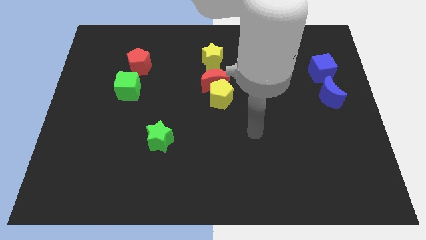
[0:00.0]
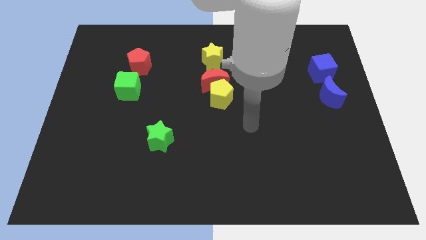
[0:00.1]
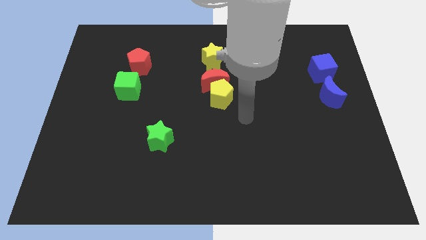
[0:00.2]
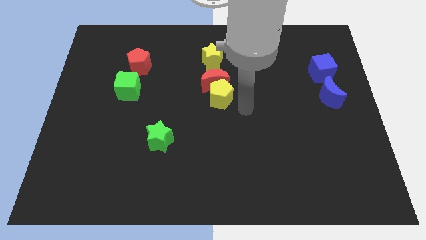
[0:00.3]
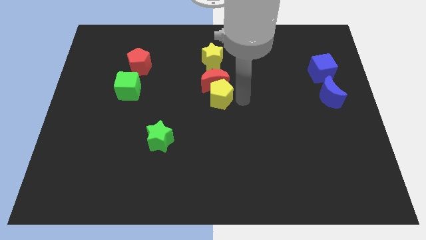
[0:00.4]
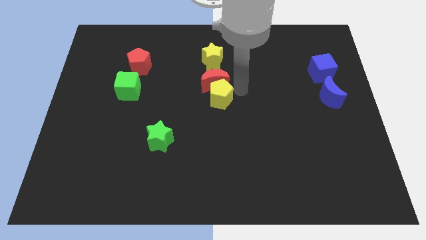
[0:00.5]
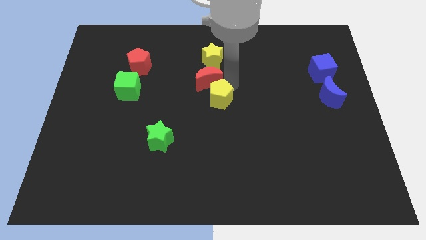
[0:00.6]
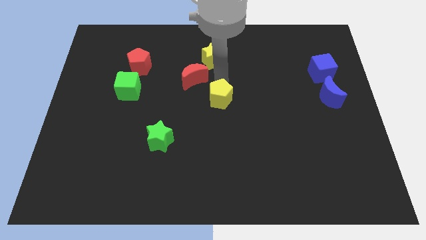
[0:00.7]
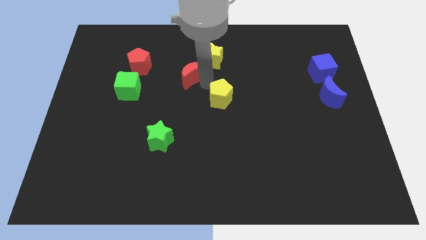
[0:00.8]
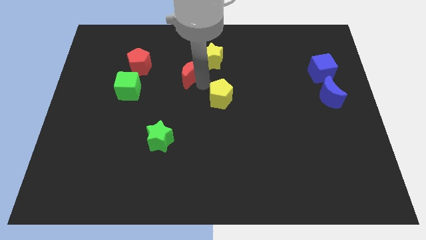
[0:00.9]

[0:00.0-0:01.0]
move the yellow pentagon away from the red moon

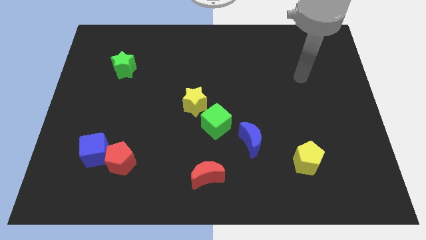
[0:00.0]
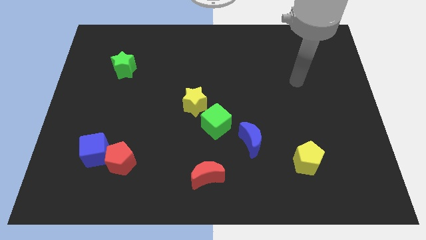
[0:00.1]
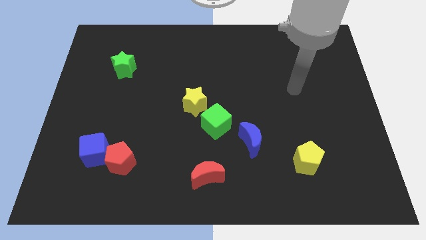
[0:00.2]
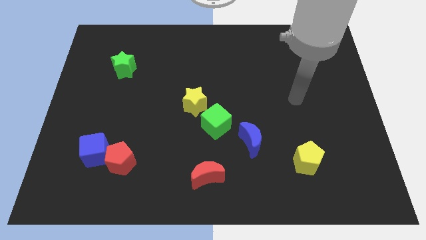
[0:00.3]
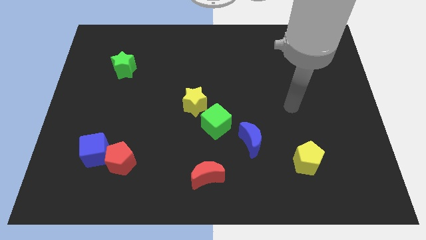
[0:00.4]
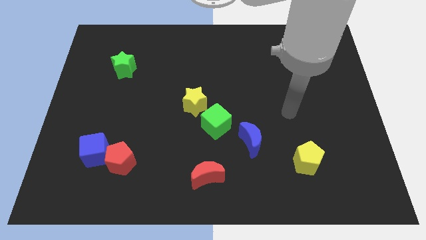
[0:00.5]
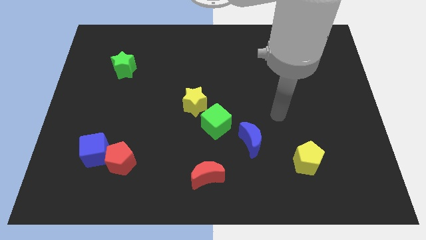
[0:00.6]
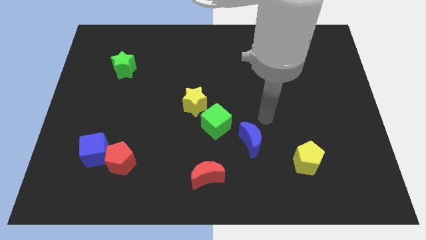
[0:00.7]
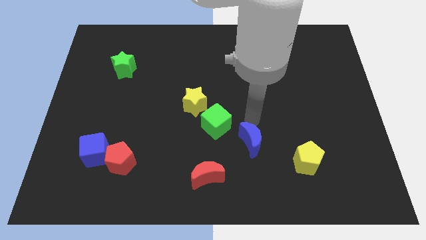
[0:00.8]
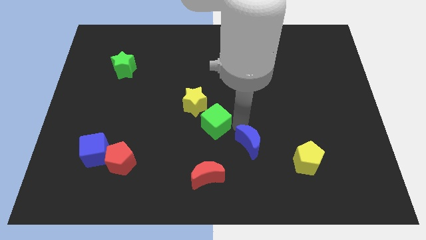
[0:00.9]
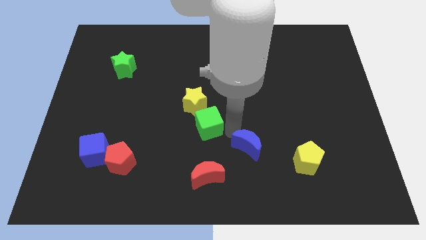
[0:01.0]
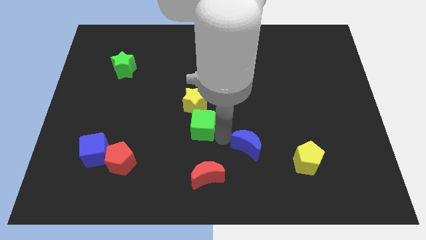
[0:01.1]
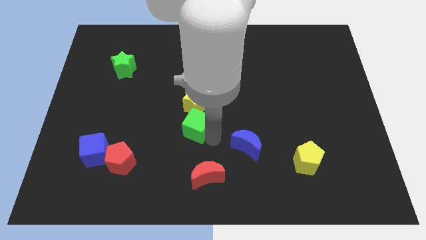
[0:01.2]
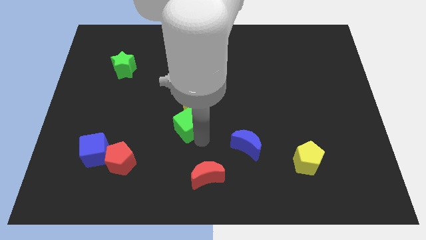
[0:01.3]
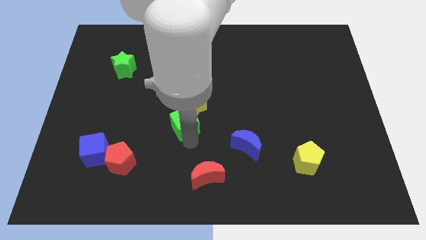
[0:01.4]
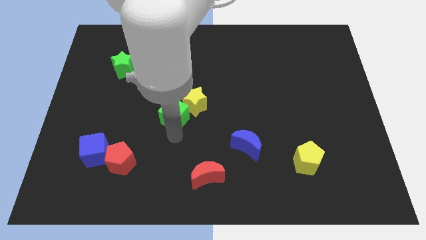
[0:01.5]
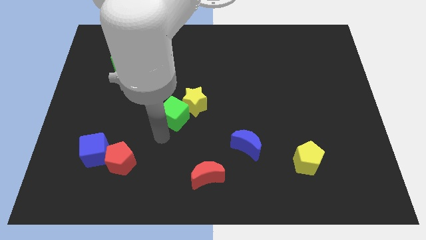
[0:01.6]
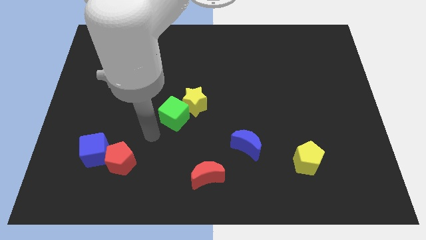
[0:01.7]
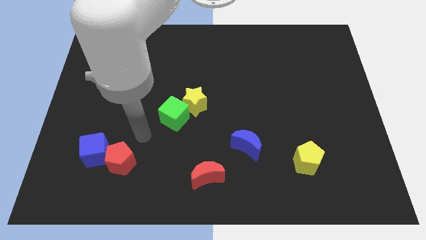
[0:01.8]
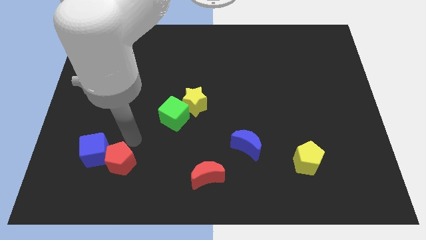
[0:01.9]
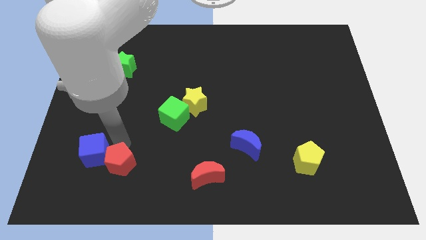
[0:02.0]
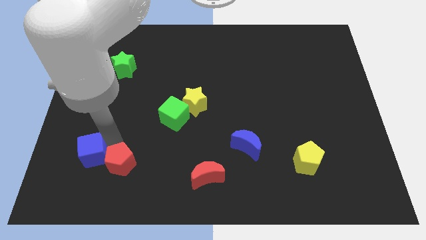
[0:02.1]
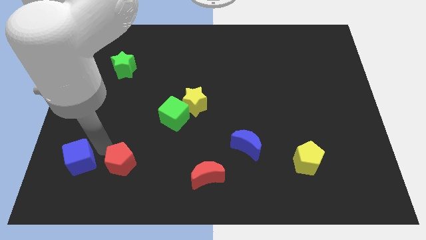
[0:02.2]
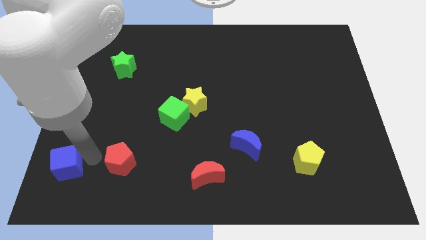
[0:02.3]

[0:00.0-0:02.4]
pull the red pentagon apart from the blue cube

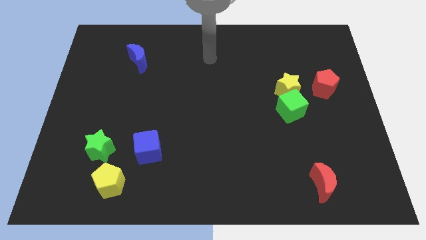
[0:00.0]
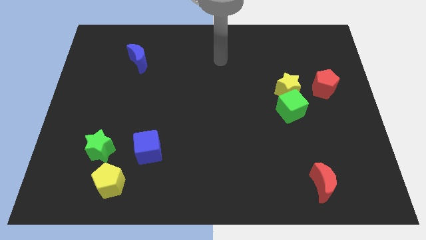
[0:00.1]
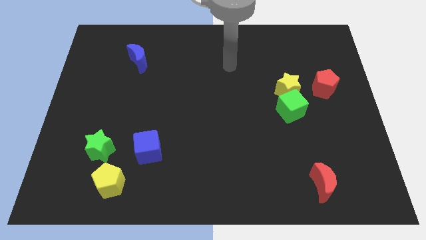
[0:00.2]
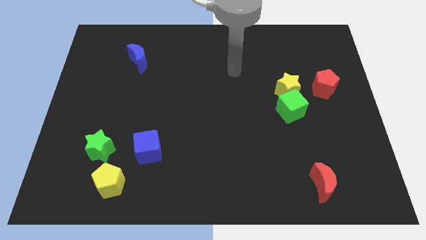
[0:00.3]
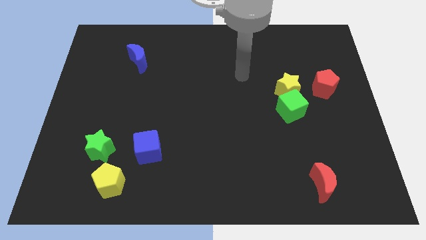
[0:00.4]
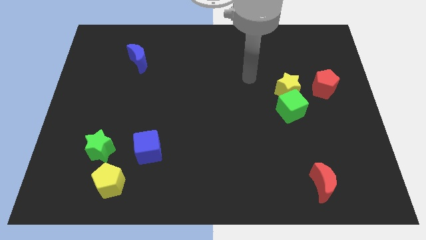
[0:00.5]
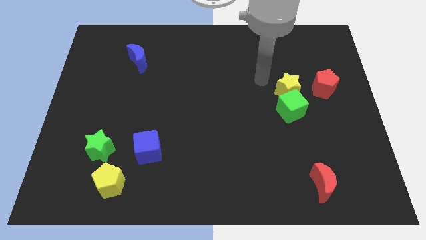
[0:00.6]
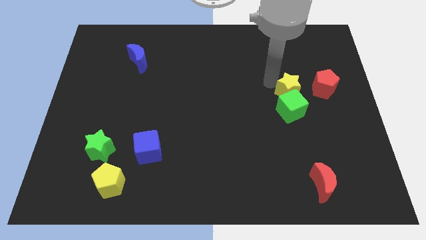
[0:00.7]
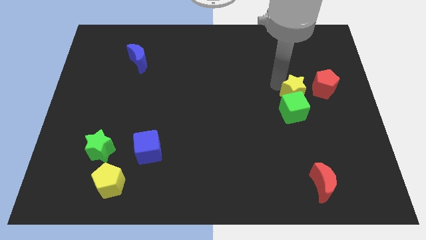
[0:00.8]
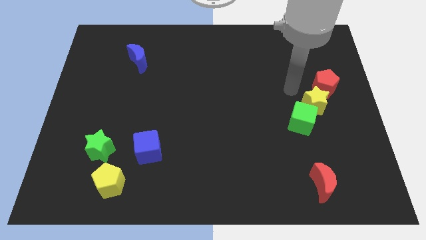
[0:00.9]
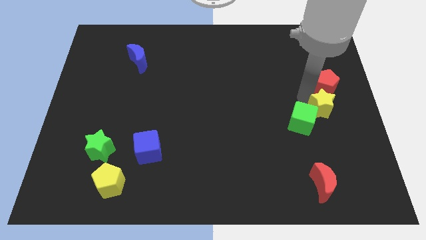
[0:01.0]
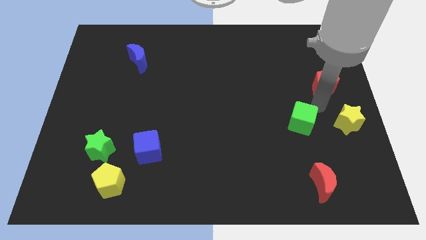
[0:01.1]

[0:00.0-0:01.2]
pull the green cube apart from the yellow star

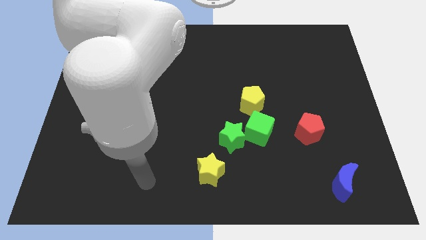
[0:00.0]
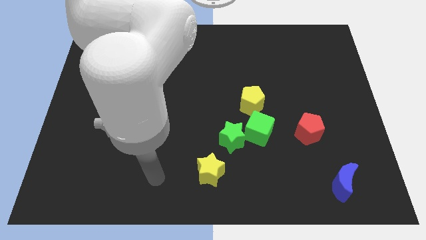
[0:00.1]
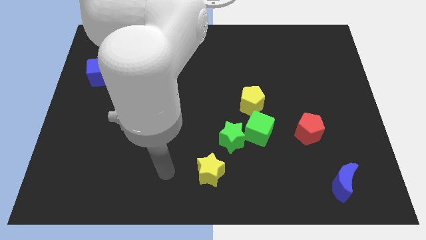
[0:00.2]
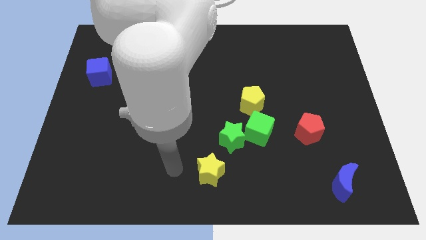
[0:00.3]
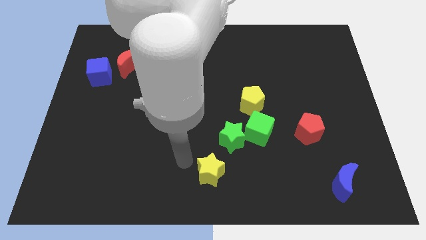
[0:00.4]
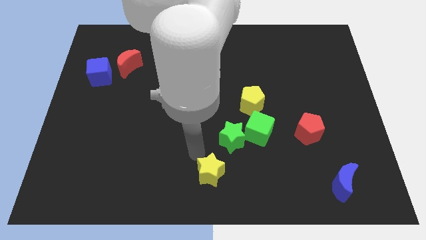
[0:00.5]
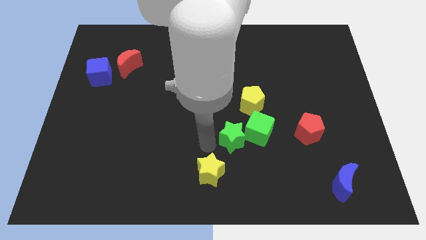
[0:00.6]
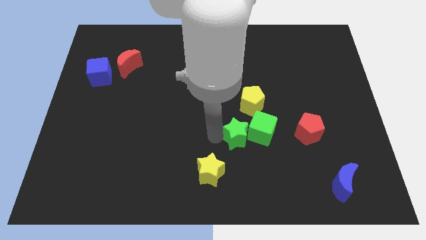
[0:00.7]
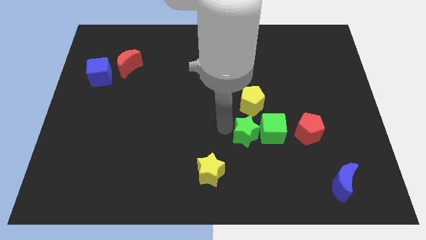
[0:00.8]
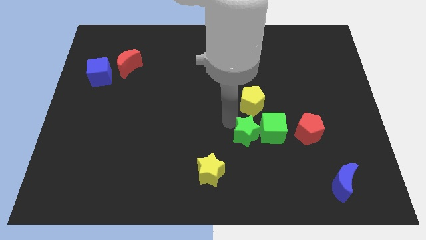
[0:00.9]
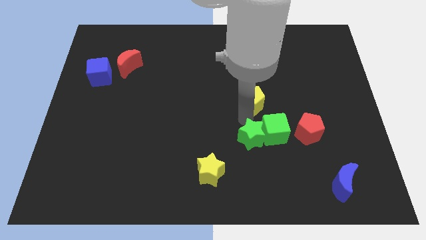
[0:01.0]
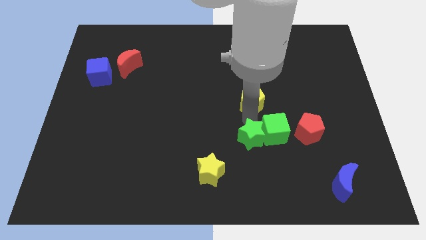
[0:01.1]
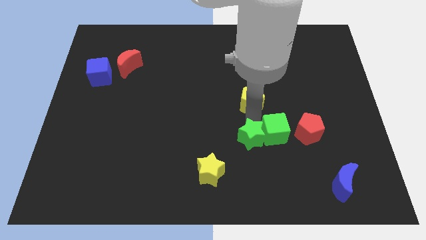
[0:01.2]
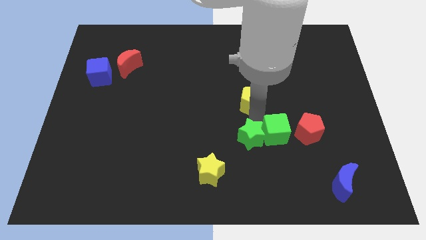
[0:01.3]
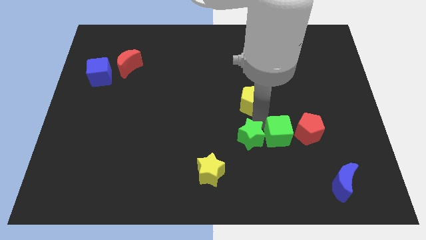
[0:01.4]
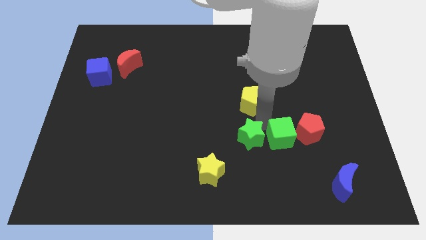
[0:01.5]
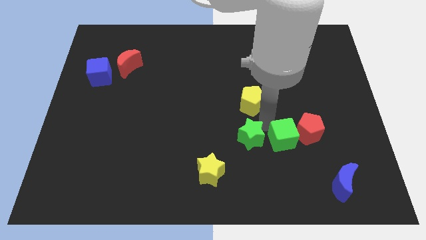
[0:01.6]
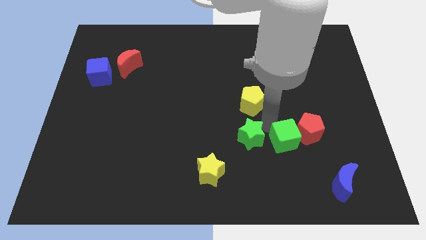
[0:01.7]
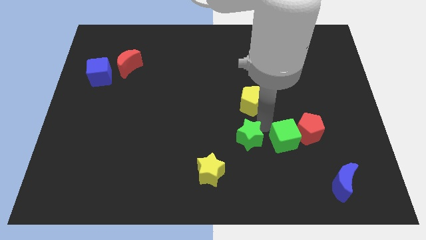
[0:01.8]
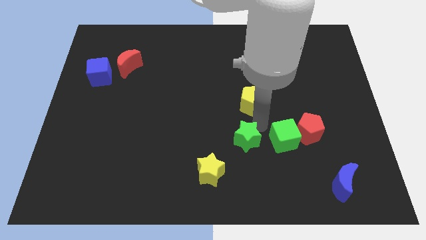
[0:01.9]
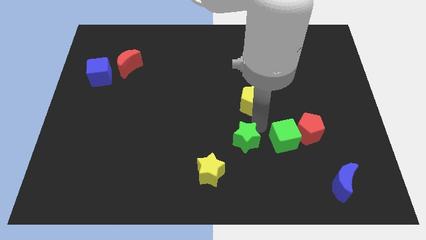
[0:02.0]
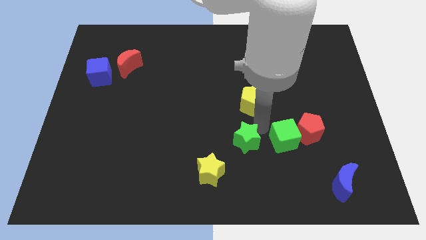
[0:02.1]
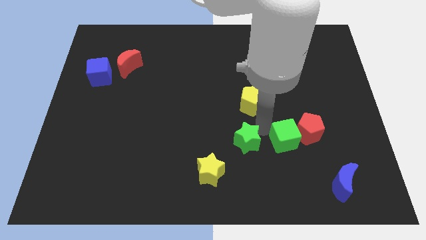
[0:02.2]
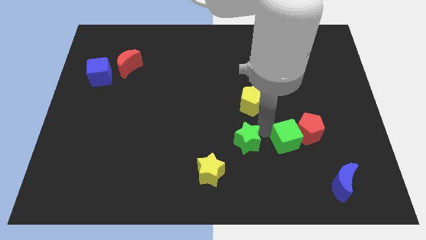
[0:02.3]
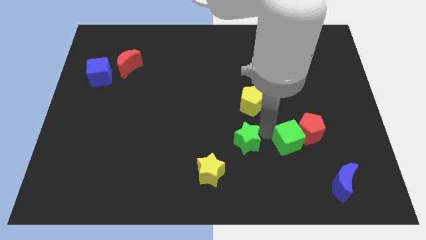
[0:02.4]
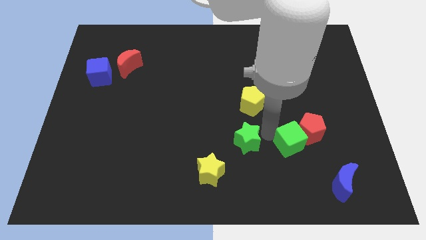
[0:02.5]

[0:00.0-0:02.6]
separate the green cube from the green star and yellow pentagon

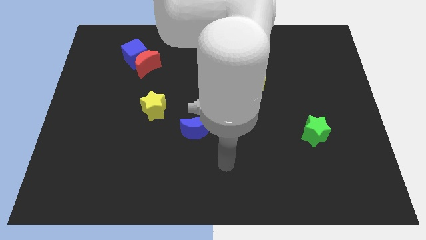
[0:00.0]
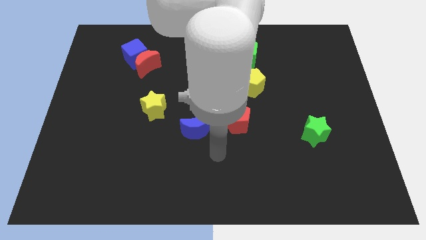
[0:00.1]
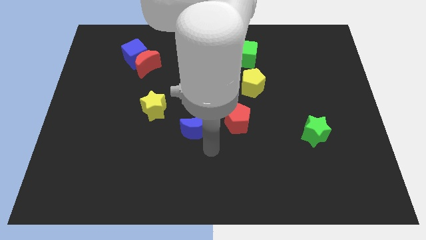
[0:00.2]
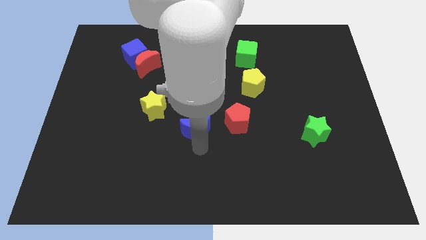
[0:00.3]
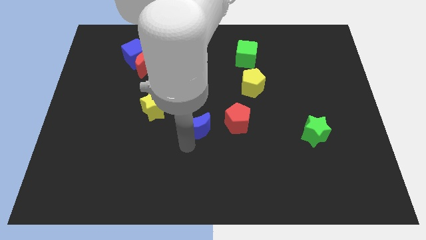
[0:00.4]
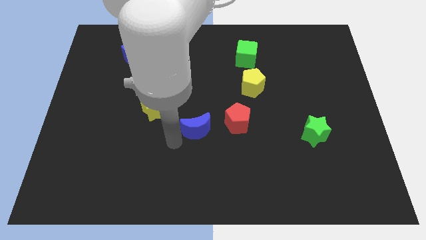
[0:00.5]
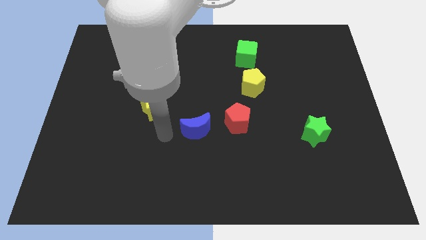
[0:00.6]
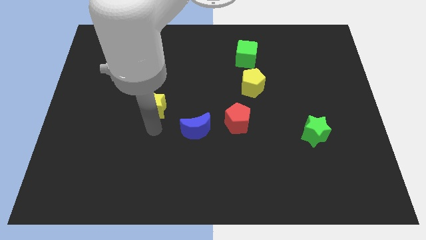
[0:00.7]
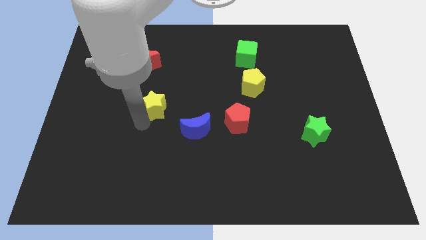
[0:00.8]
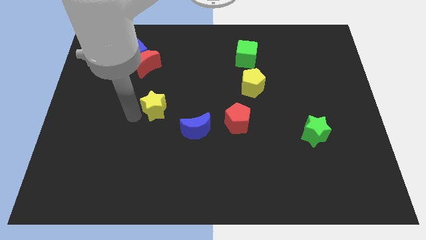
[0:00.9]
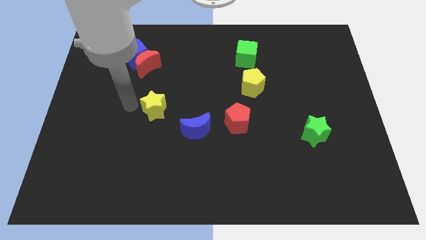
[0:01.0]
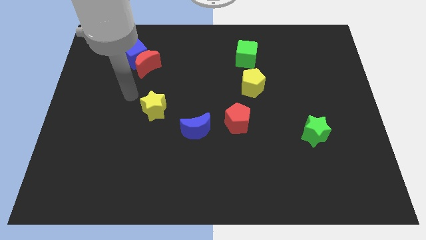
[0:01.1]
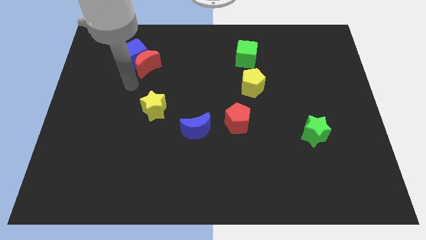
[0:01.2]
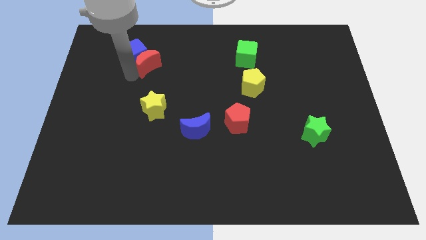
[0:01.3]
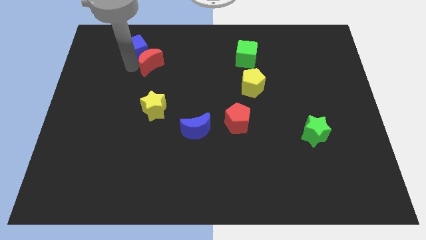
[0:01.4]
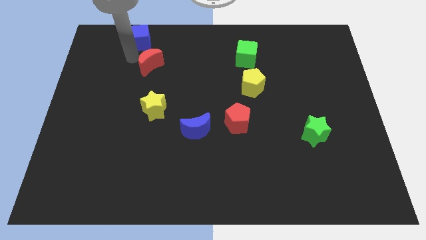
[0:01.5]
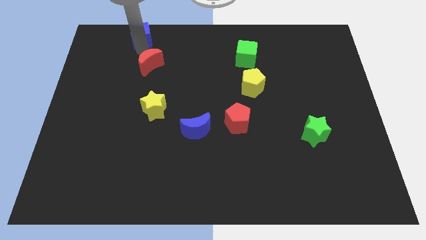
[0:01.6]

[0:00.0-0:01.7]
move the red moon away from the blue cube

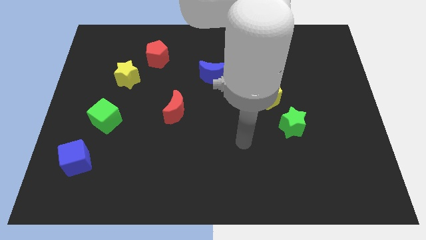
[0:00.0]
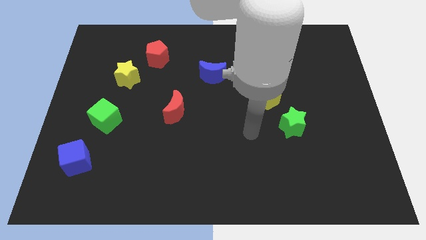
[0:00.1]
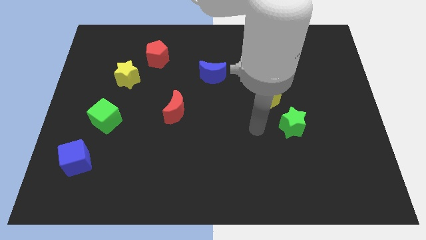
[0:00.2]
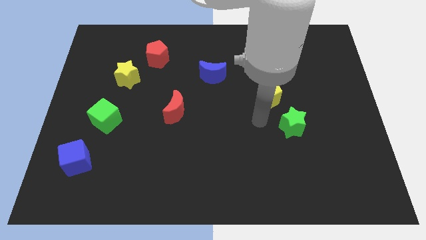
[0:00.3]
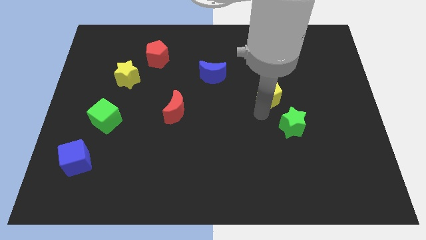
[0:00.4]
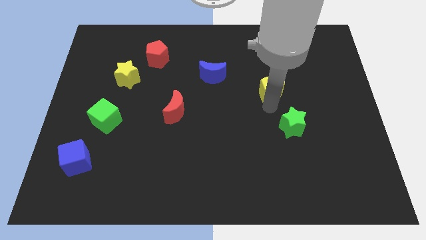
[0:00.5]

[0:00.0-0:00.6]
separate the green star from the yellow pentagon
